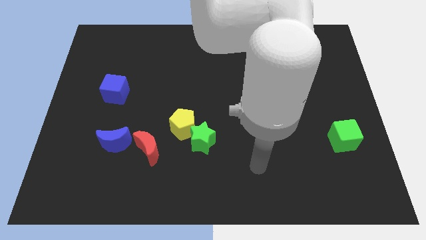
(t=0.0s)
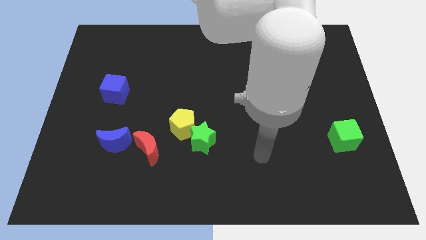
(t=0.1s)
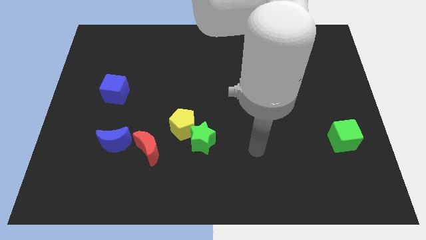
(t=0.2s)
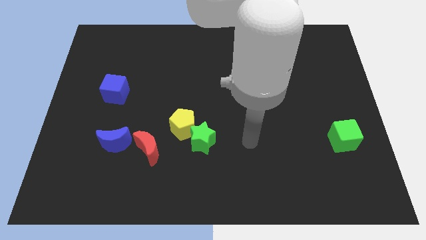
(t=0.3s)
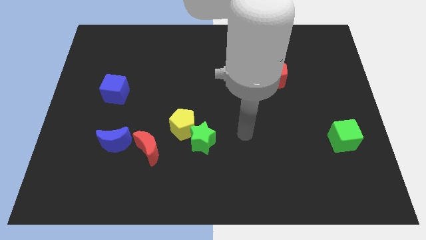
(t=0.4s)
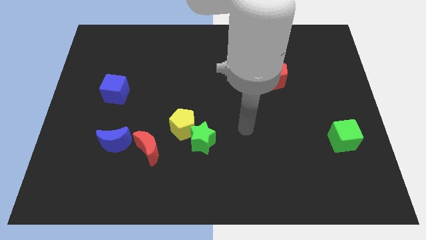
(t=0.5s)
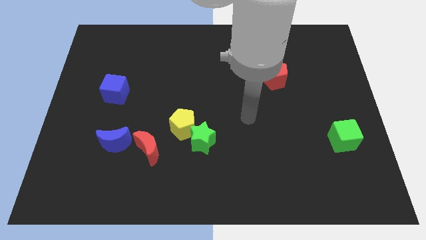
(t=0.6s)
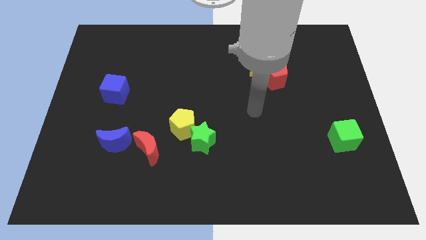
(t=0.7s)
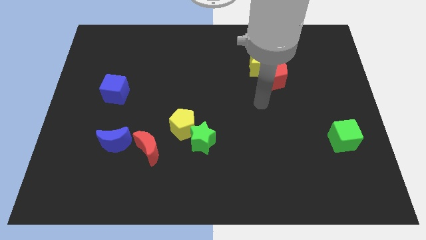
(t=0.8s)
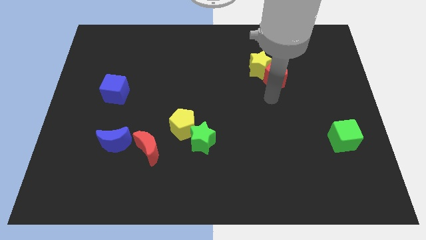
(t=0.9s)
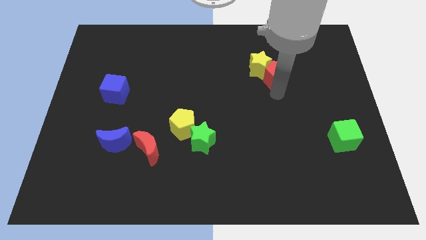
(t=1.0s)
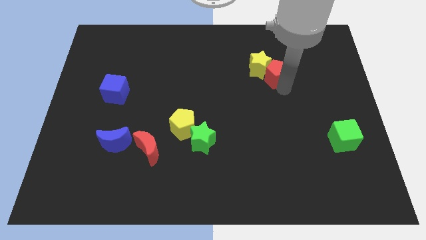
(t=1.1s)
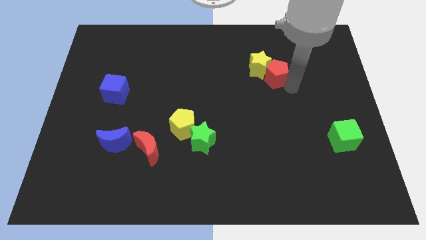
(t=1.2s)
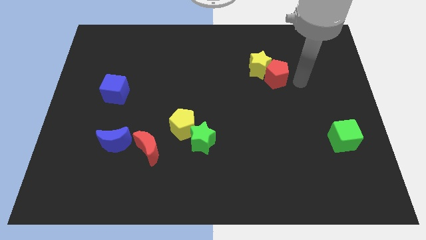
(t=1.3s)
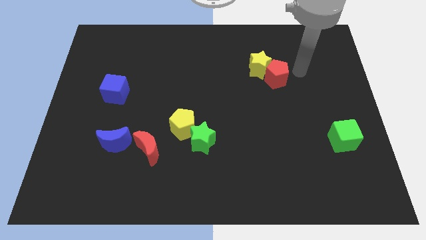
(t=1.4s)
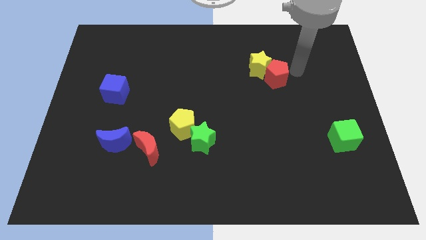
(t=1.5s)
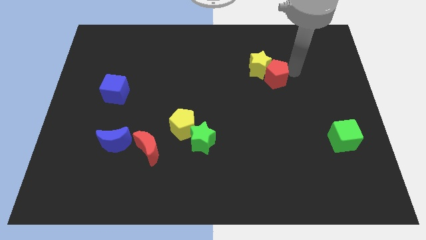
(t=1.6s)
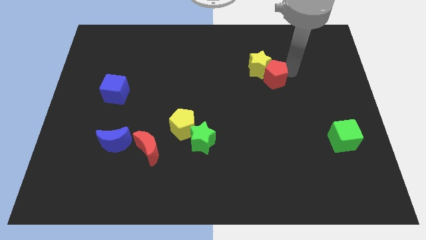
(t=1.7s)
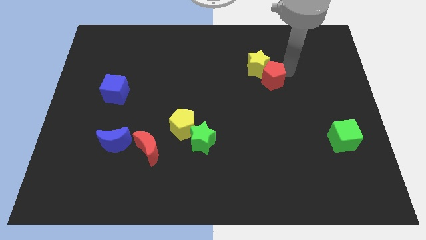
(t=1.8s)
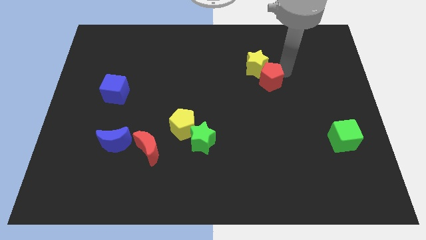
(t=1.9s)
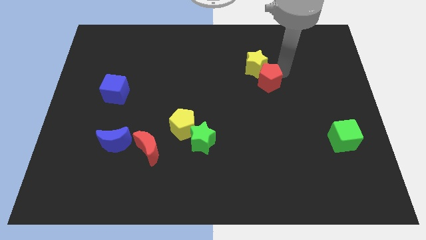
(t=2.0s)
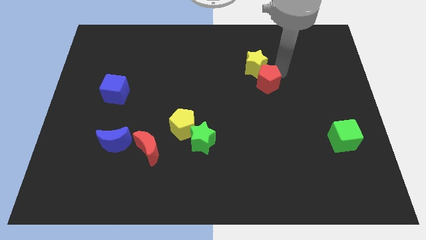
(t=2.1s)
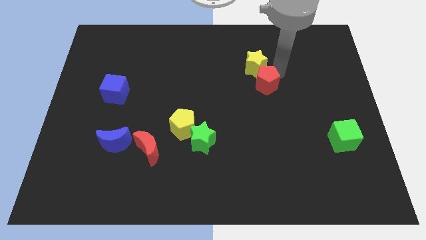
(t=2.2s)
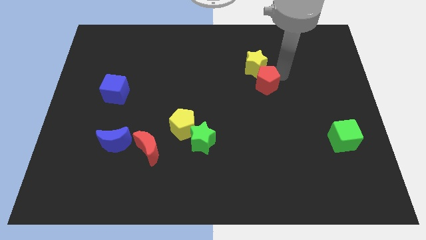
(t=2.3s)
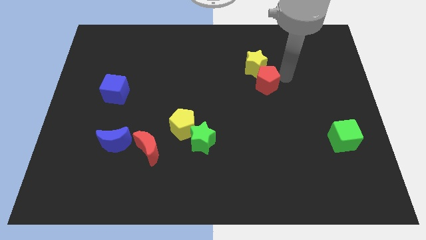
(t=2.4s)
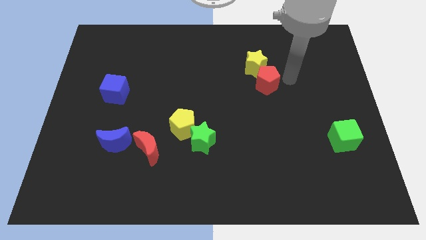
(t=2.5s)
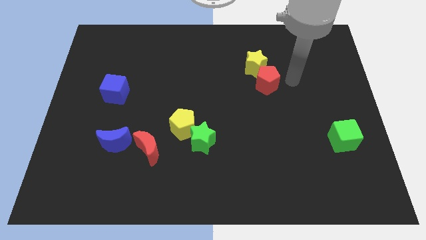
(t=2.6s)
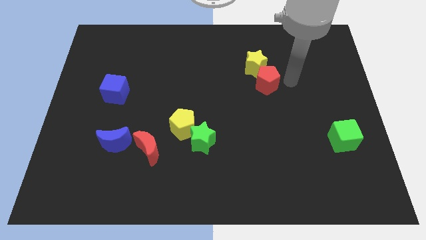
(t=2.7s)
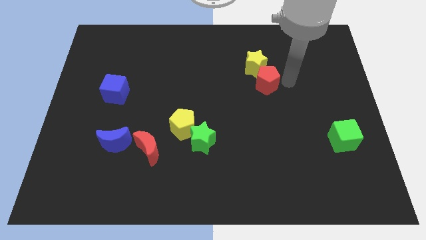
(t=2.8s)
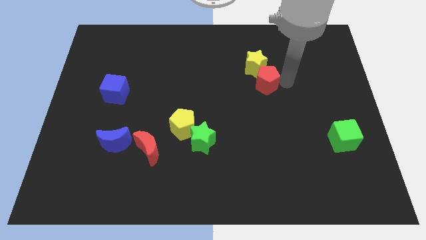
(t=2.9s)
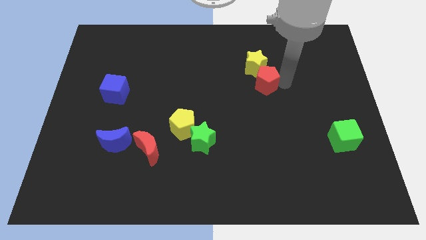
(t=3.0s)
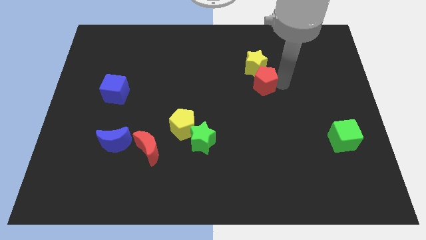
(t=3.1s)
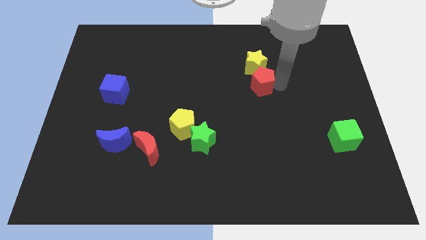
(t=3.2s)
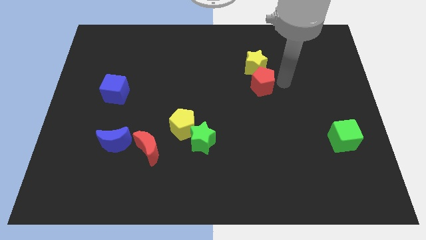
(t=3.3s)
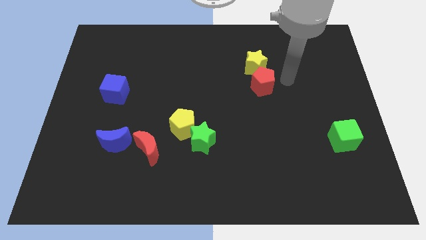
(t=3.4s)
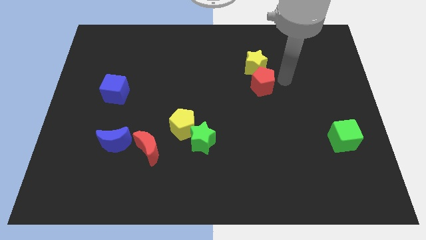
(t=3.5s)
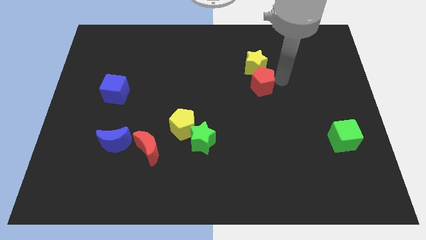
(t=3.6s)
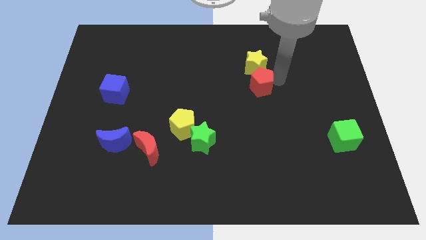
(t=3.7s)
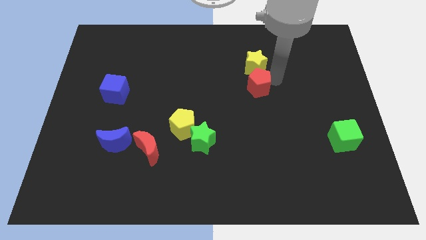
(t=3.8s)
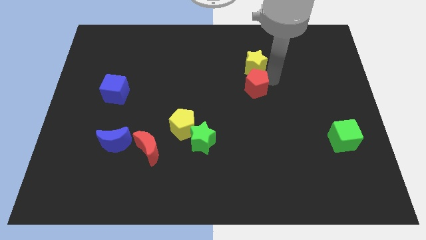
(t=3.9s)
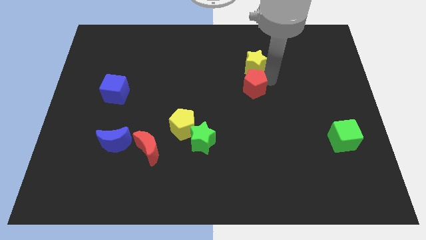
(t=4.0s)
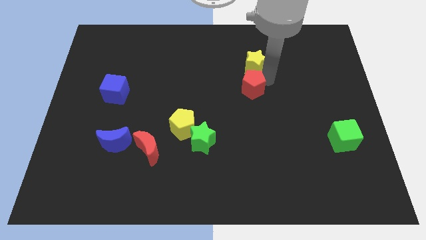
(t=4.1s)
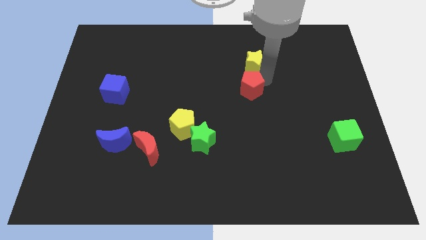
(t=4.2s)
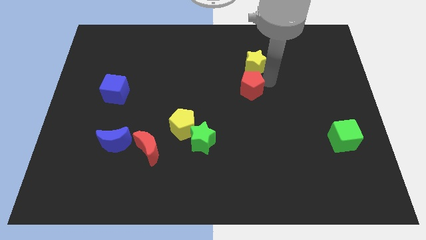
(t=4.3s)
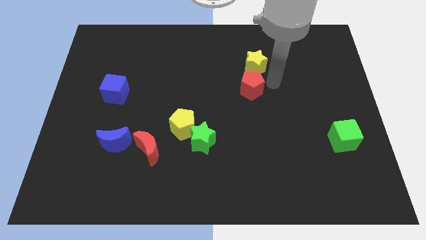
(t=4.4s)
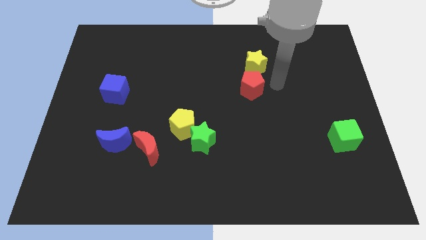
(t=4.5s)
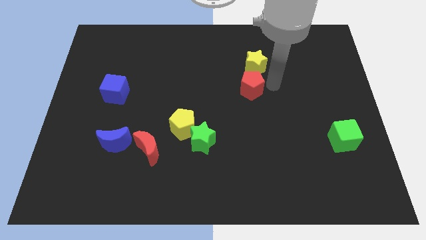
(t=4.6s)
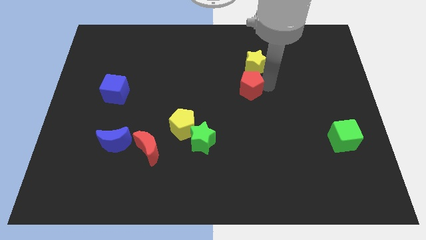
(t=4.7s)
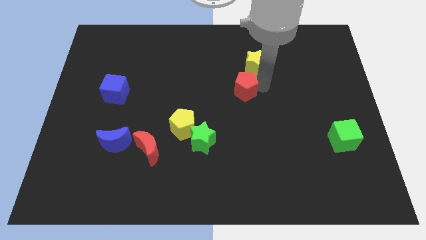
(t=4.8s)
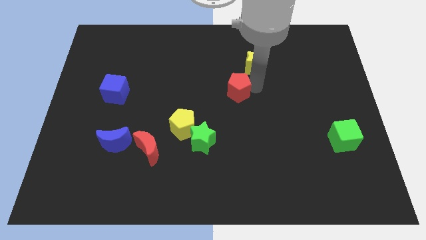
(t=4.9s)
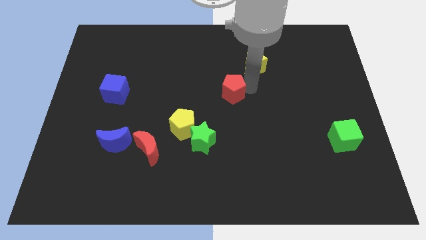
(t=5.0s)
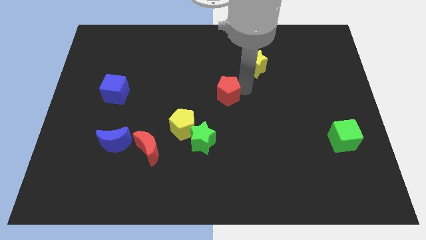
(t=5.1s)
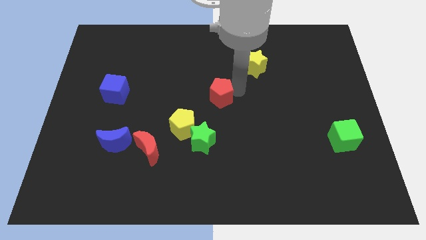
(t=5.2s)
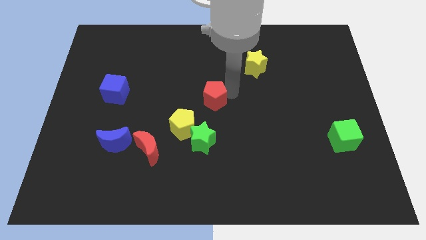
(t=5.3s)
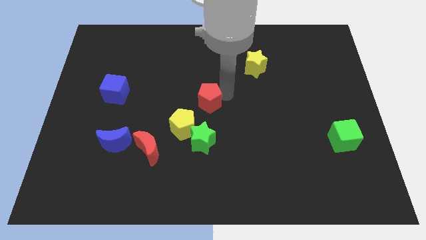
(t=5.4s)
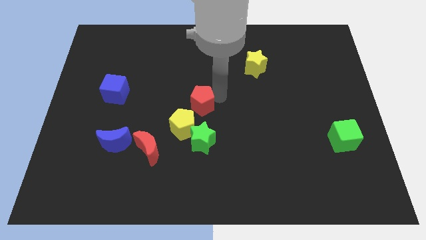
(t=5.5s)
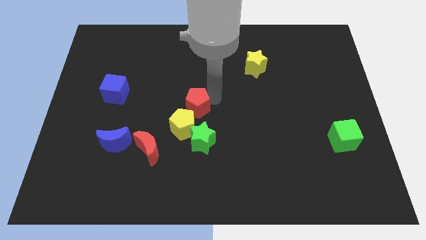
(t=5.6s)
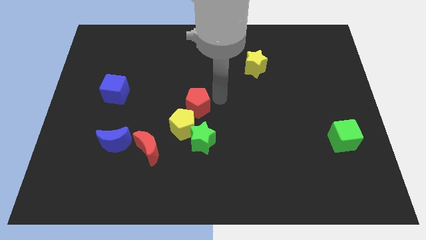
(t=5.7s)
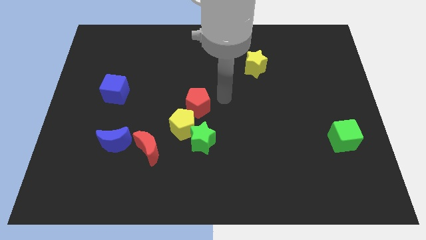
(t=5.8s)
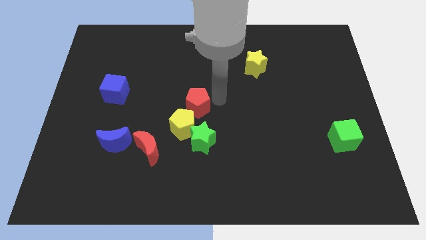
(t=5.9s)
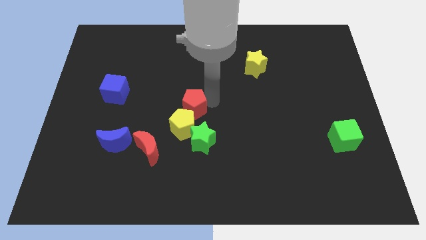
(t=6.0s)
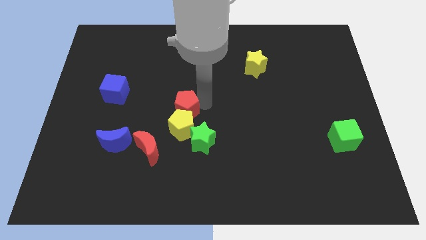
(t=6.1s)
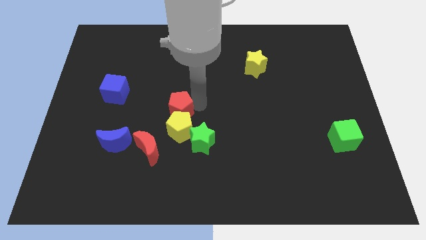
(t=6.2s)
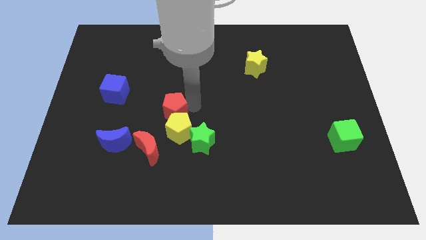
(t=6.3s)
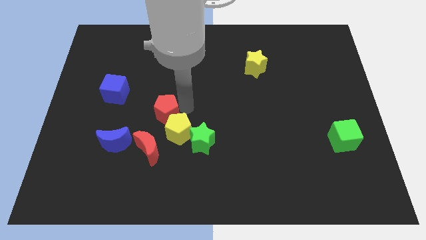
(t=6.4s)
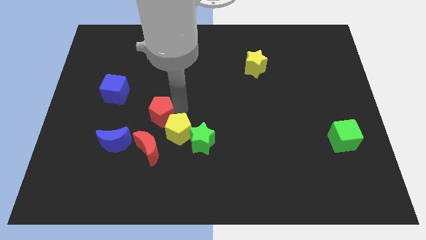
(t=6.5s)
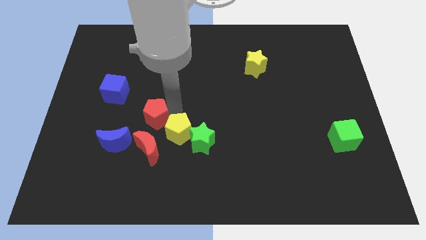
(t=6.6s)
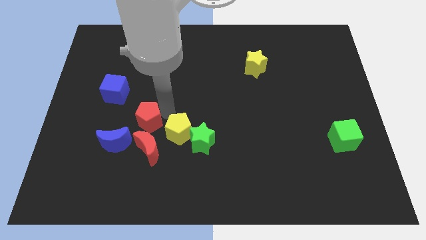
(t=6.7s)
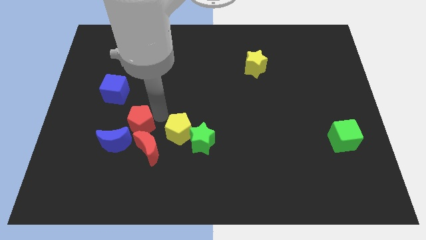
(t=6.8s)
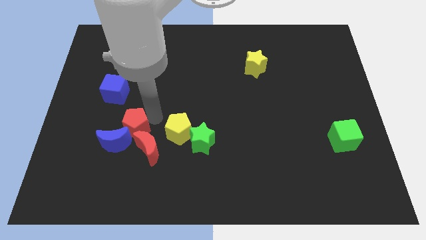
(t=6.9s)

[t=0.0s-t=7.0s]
put the red pentagon next to the blue moon
